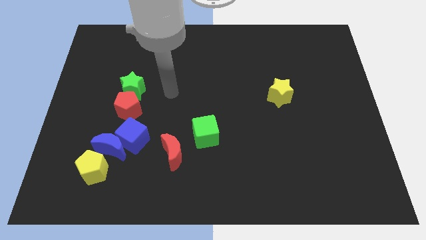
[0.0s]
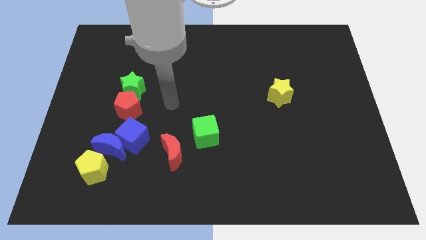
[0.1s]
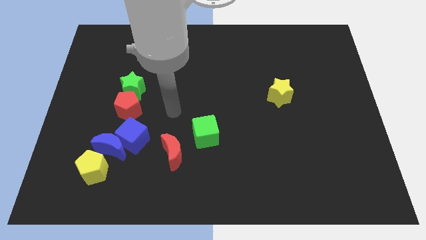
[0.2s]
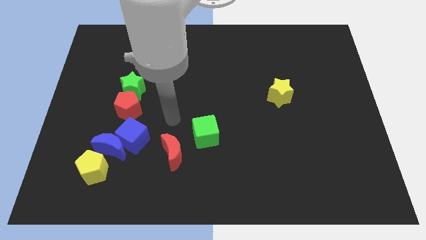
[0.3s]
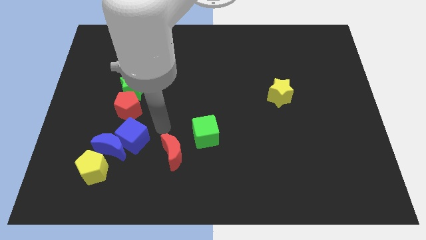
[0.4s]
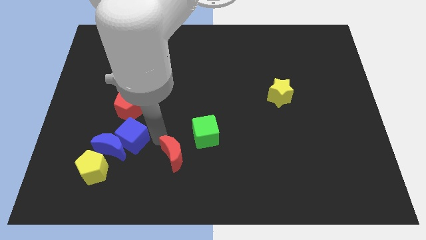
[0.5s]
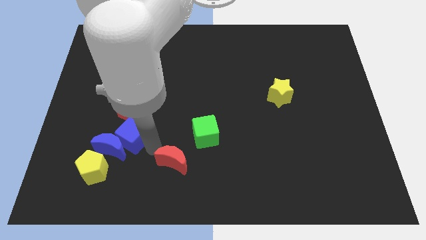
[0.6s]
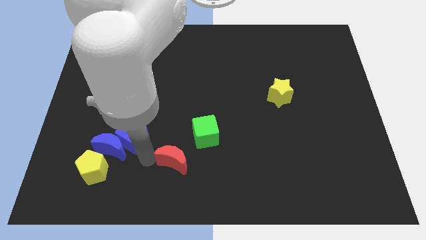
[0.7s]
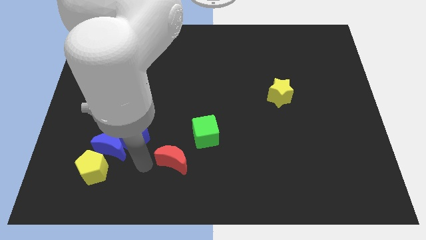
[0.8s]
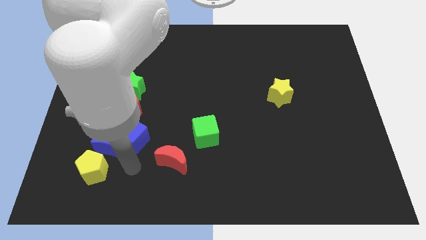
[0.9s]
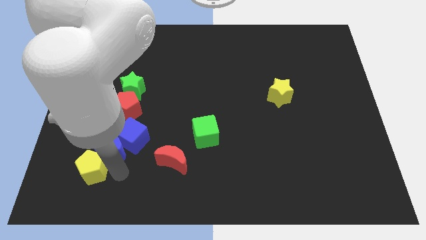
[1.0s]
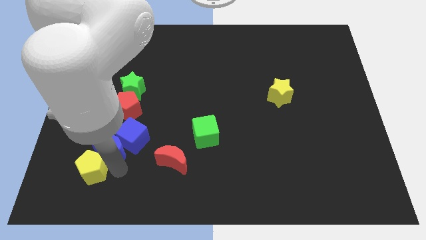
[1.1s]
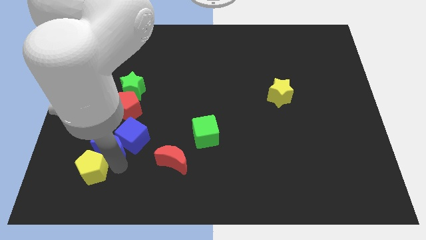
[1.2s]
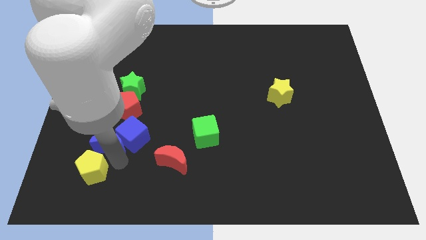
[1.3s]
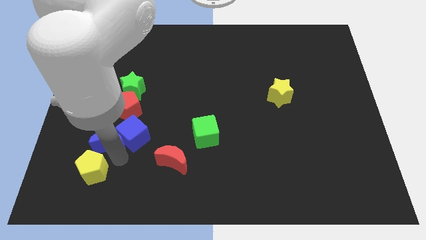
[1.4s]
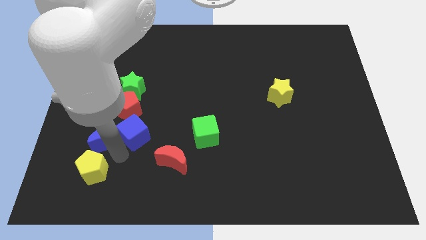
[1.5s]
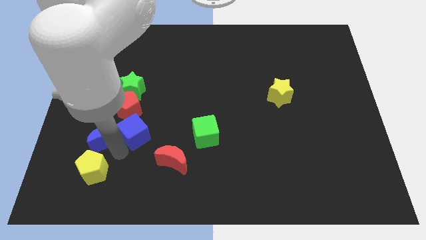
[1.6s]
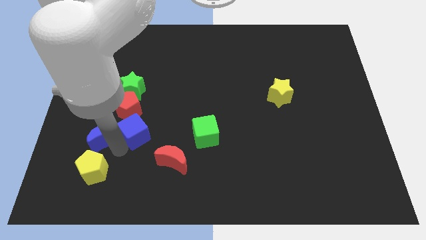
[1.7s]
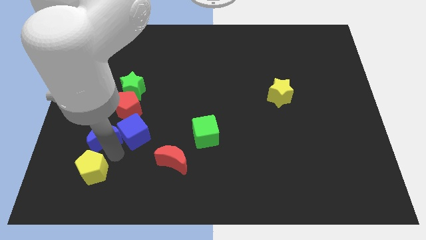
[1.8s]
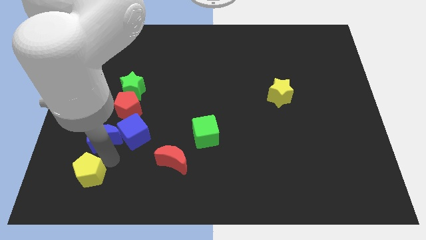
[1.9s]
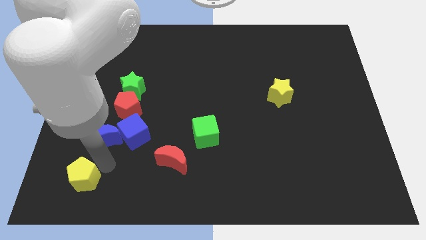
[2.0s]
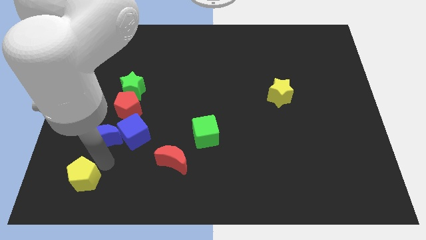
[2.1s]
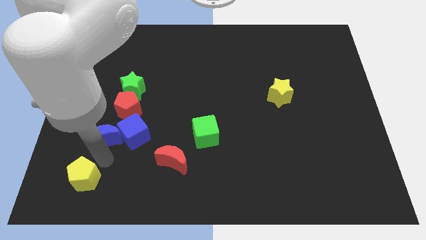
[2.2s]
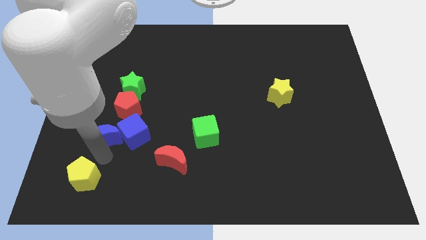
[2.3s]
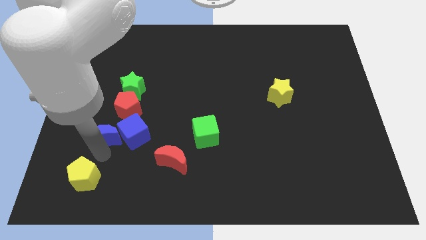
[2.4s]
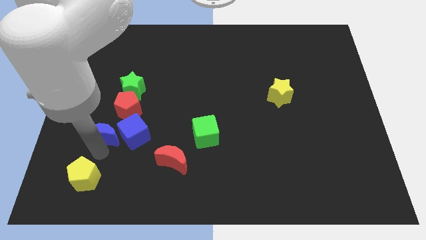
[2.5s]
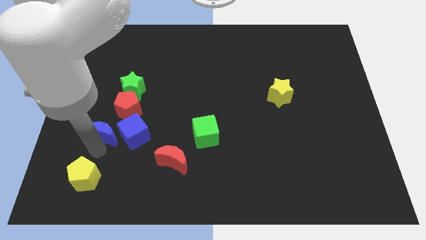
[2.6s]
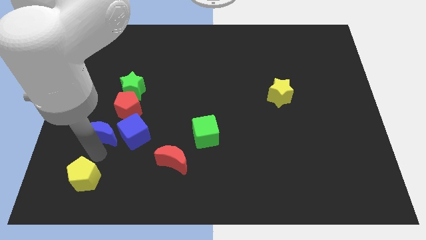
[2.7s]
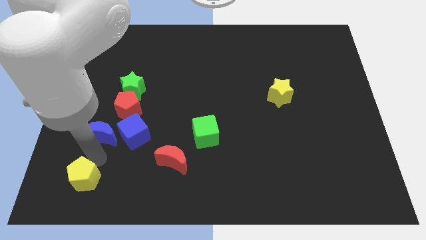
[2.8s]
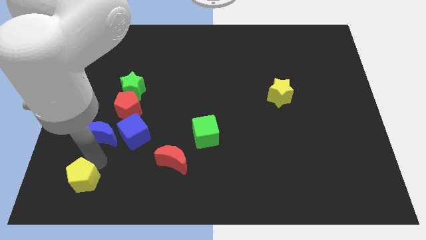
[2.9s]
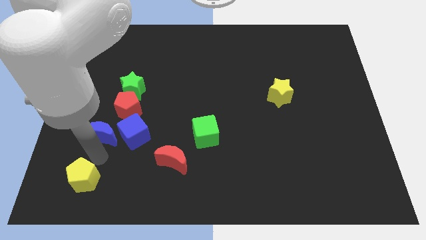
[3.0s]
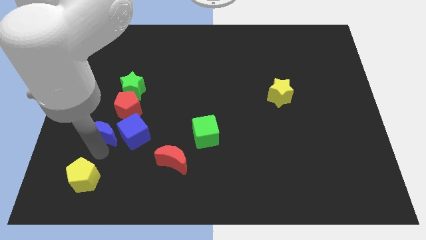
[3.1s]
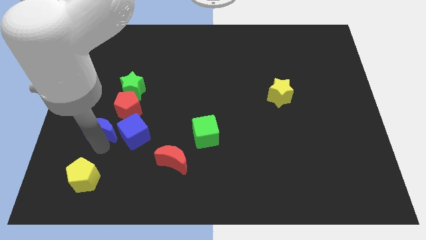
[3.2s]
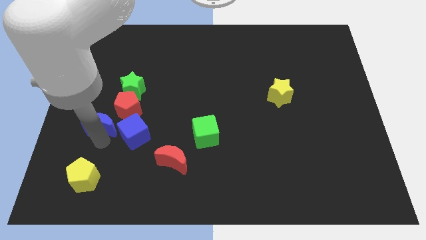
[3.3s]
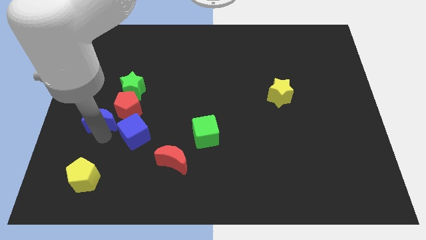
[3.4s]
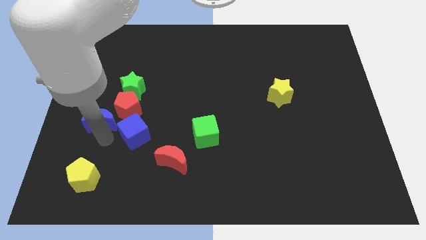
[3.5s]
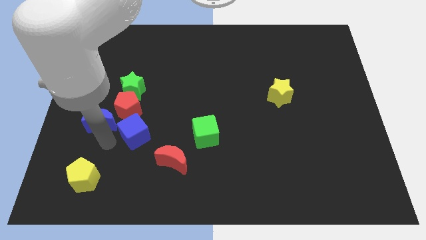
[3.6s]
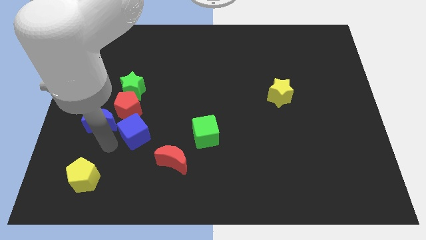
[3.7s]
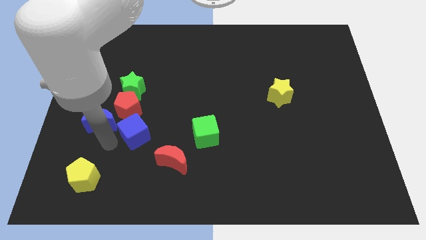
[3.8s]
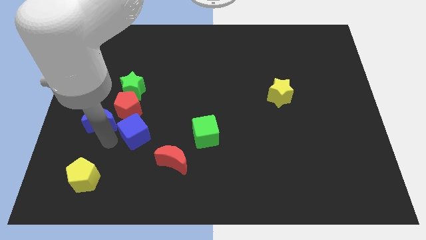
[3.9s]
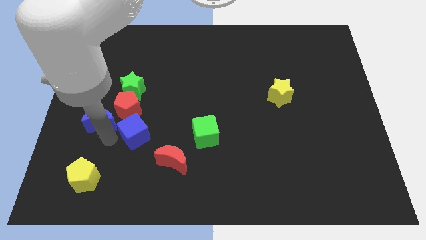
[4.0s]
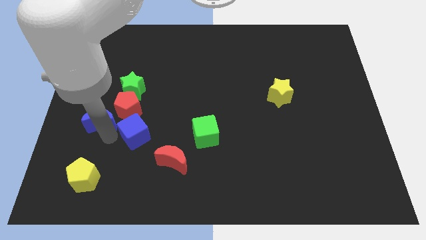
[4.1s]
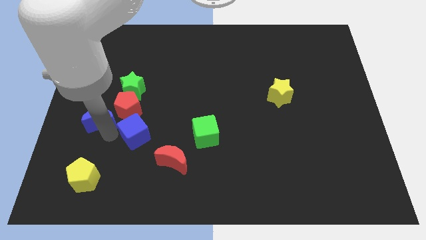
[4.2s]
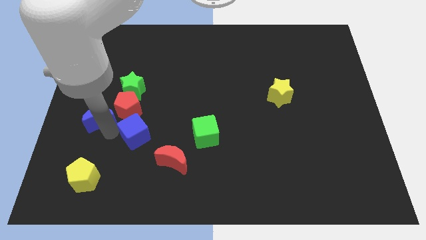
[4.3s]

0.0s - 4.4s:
separate the blue moon from the blue cube and yellow pentagon

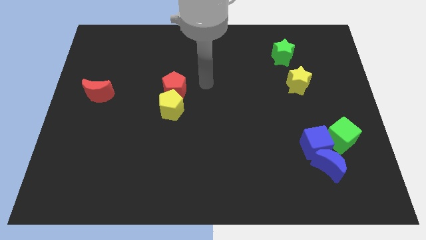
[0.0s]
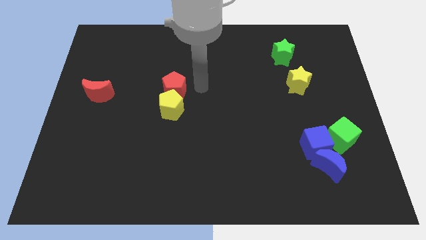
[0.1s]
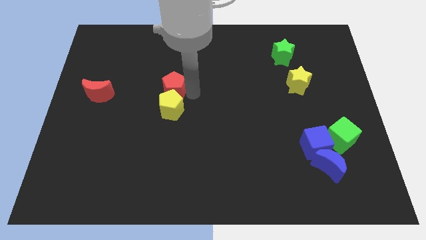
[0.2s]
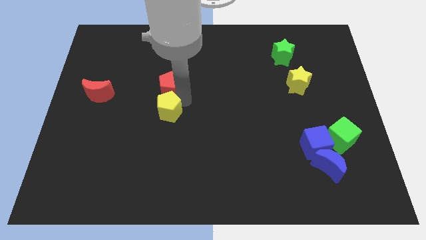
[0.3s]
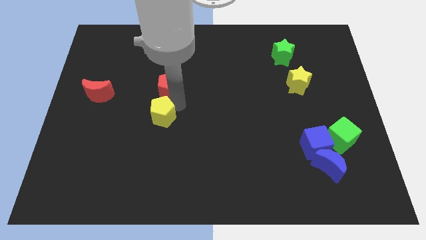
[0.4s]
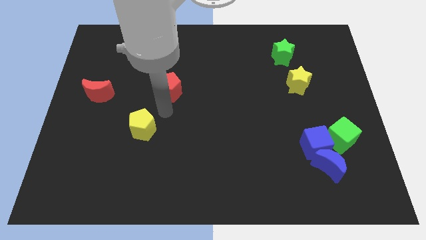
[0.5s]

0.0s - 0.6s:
separate the red pentagon from the yellow pentagon

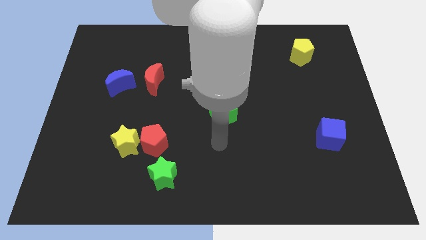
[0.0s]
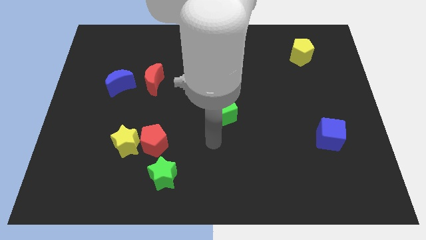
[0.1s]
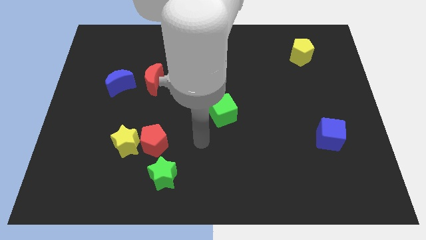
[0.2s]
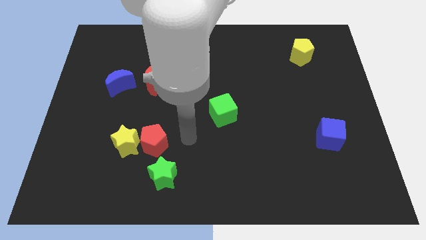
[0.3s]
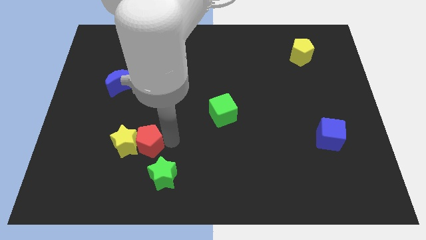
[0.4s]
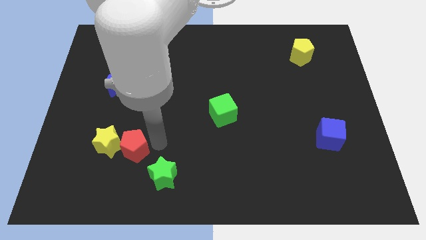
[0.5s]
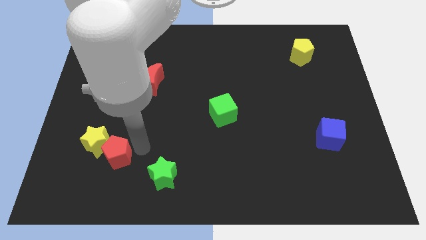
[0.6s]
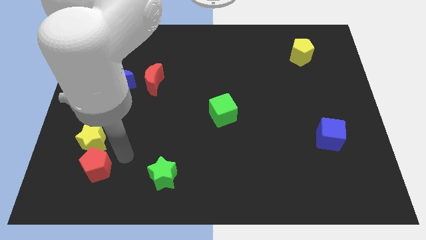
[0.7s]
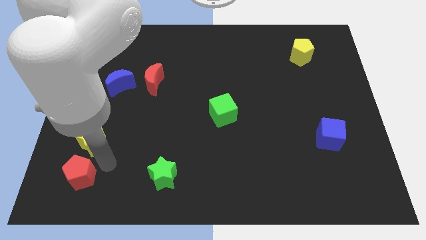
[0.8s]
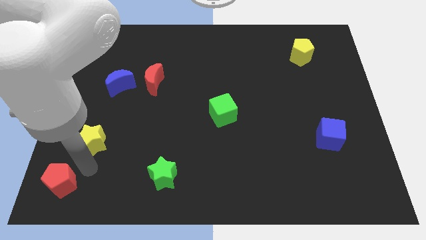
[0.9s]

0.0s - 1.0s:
move the yellow star away from the red pentagon

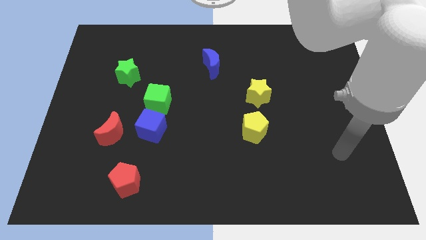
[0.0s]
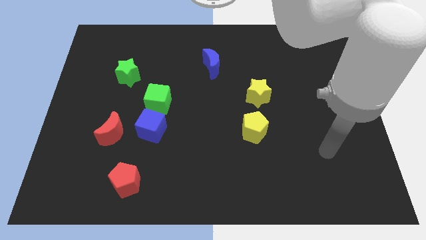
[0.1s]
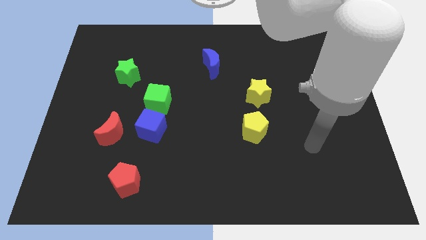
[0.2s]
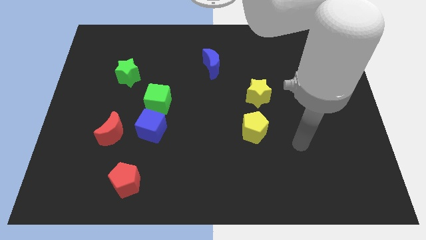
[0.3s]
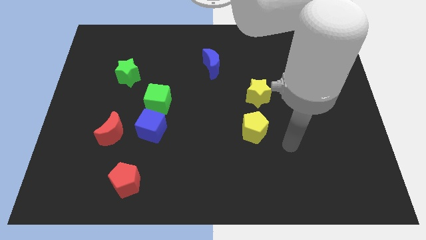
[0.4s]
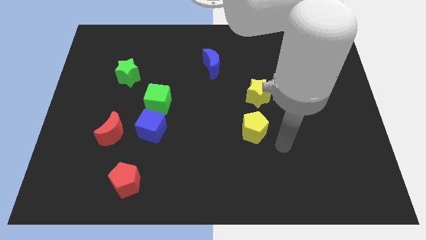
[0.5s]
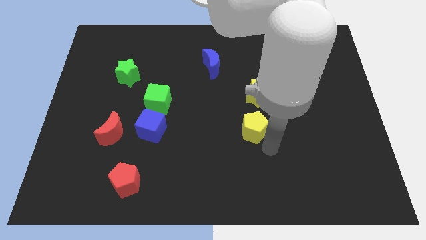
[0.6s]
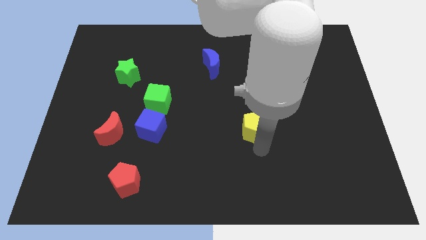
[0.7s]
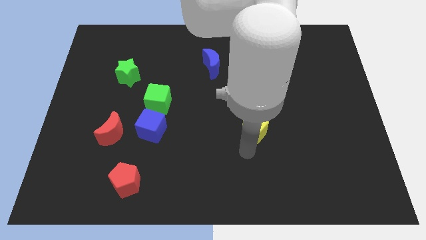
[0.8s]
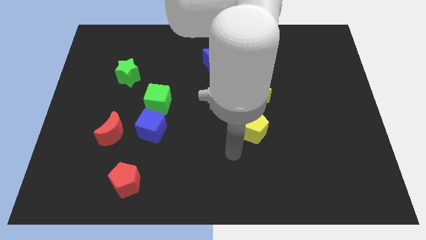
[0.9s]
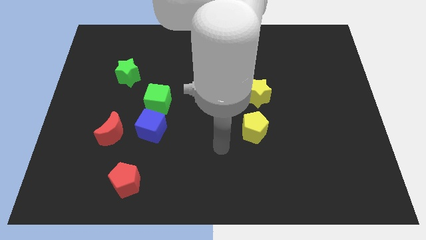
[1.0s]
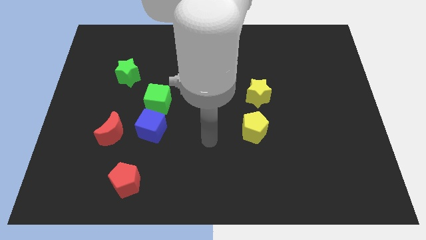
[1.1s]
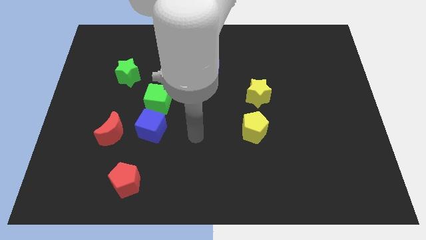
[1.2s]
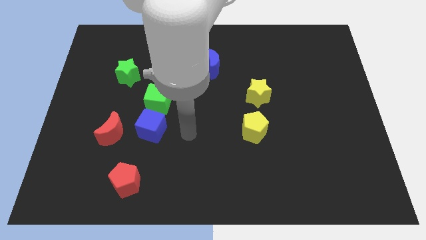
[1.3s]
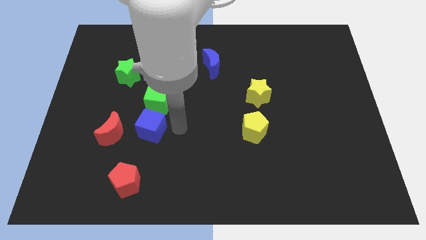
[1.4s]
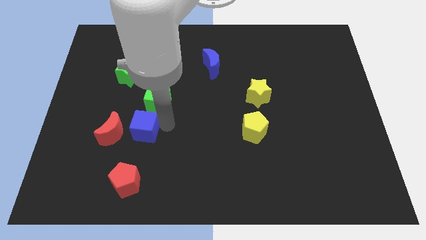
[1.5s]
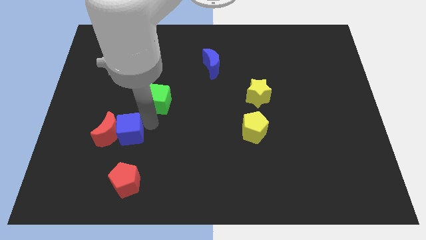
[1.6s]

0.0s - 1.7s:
move the green cube away from the blue cube

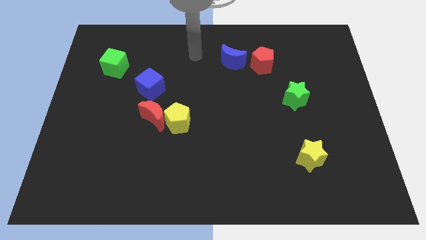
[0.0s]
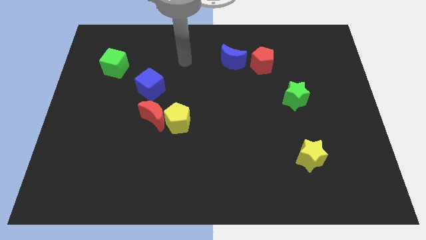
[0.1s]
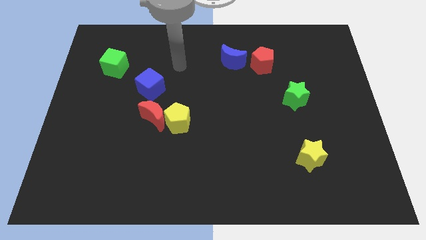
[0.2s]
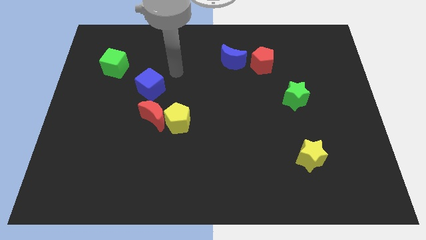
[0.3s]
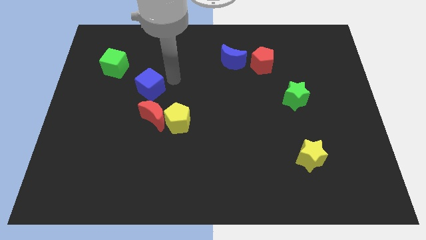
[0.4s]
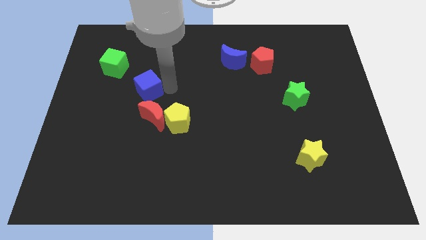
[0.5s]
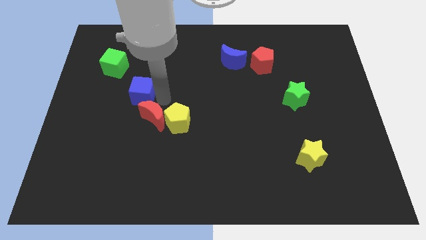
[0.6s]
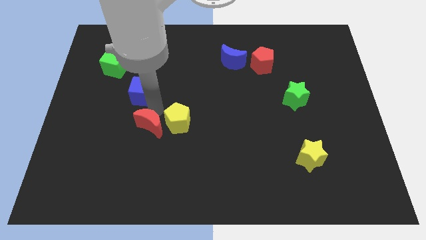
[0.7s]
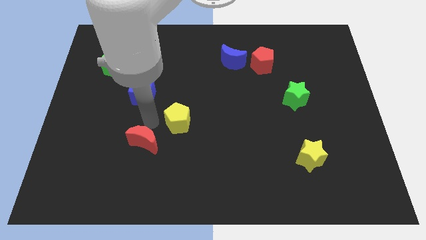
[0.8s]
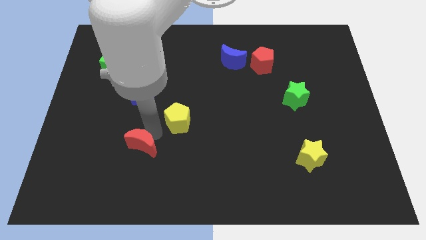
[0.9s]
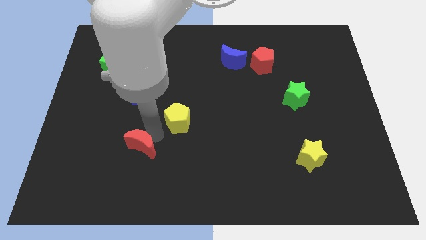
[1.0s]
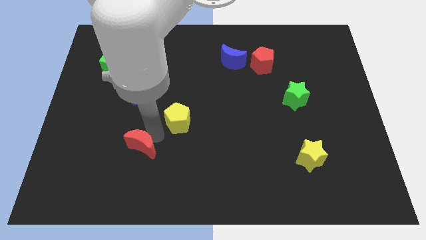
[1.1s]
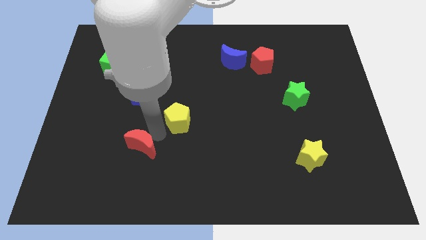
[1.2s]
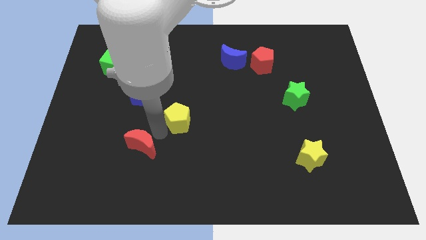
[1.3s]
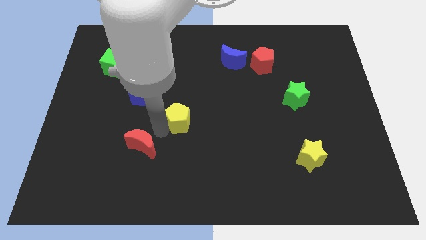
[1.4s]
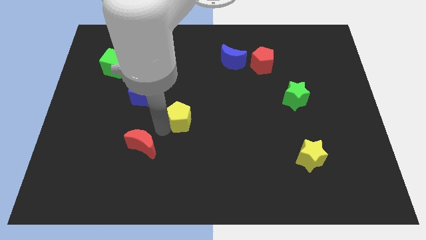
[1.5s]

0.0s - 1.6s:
separate the yellow pentagon from the red moon
